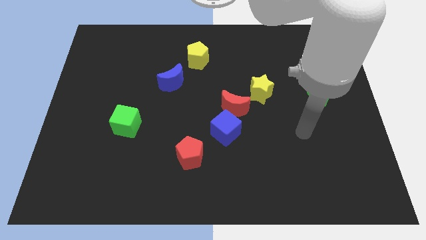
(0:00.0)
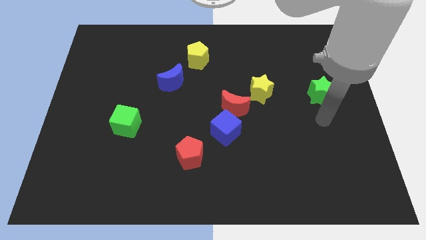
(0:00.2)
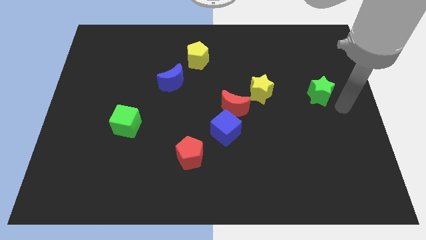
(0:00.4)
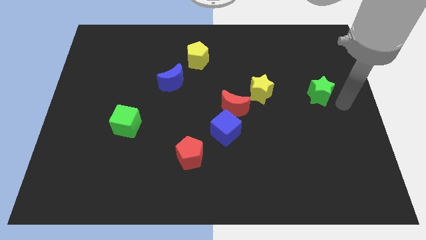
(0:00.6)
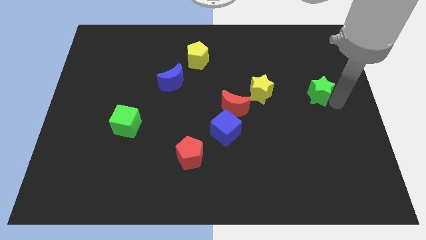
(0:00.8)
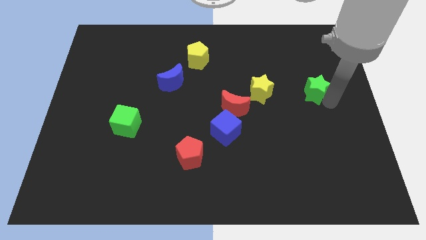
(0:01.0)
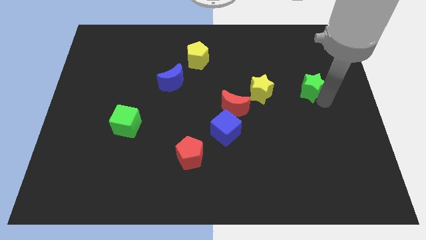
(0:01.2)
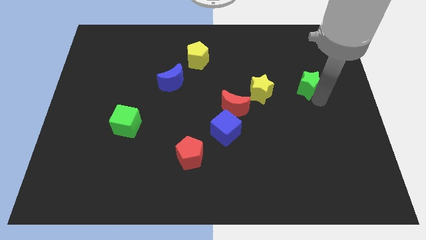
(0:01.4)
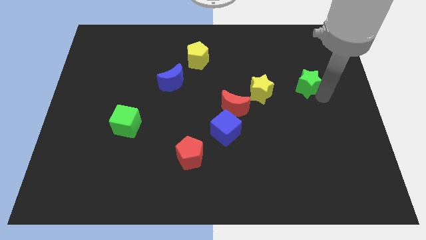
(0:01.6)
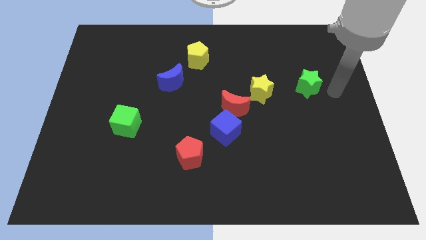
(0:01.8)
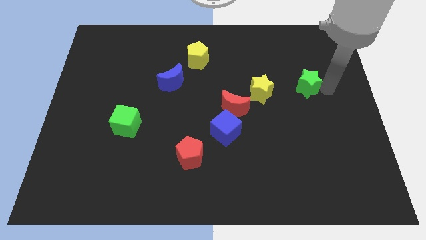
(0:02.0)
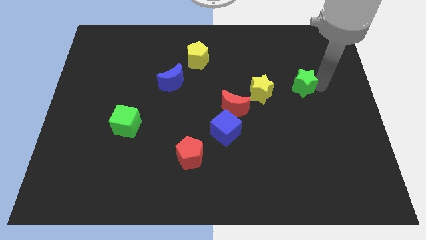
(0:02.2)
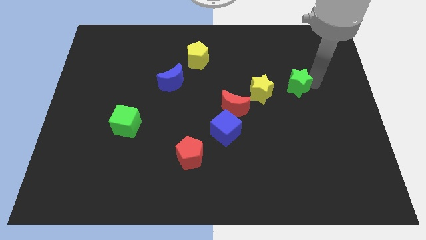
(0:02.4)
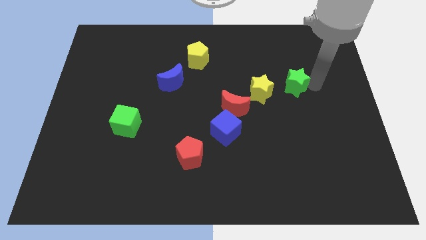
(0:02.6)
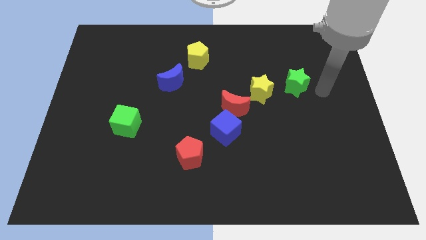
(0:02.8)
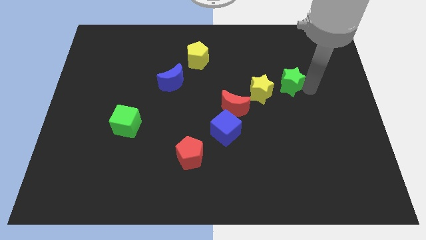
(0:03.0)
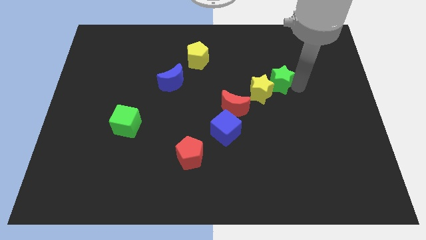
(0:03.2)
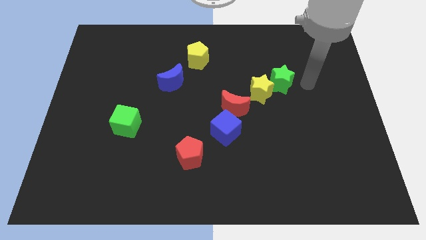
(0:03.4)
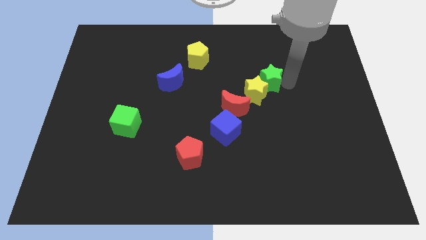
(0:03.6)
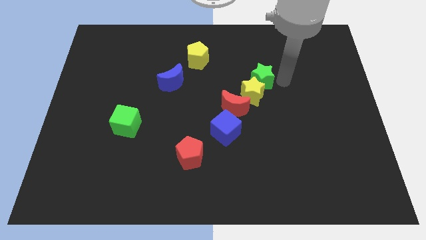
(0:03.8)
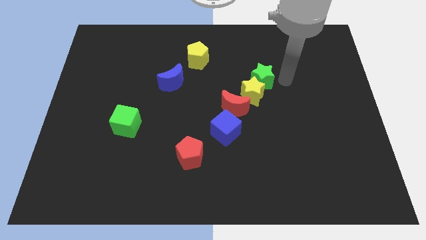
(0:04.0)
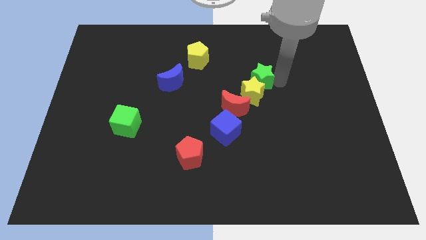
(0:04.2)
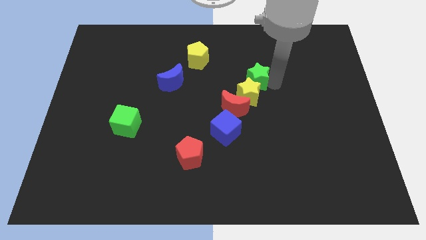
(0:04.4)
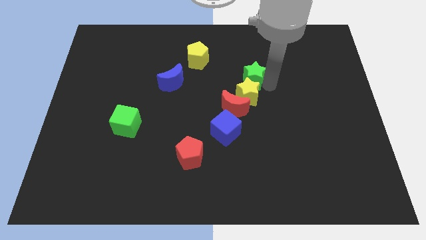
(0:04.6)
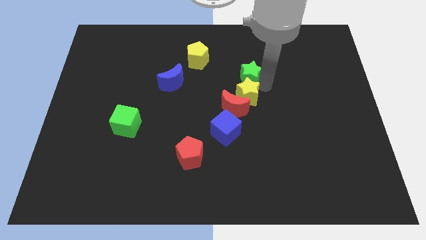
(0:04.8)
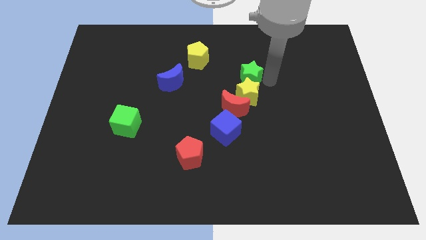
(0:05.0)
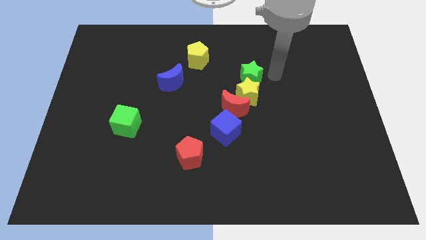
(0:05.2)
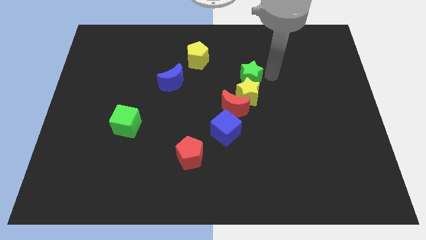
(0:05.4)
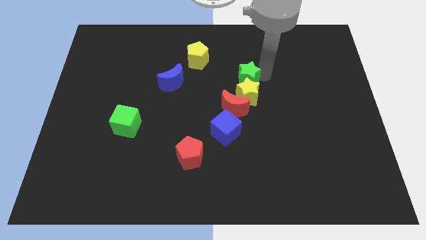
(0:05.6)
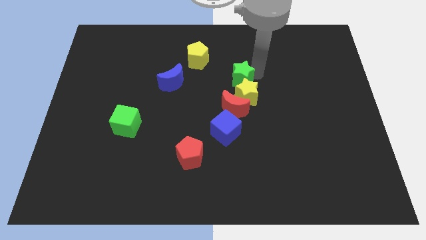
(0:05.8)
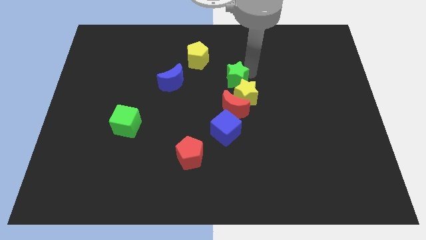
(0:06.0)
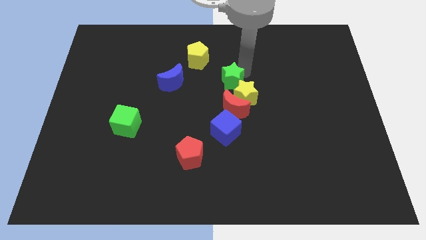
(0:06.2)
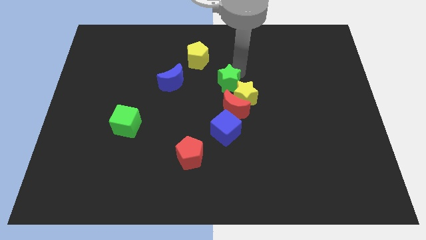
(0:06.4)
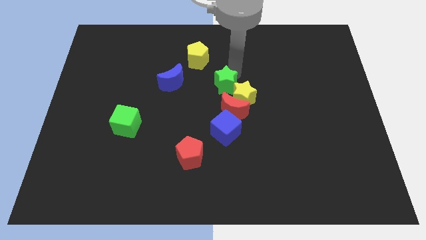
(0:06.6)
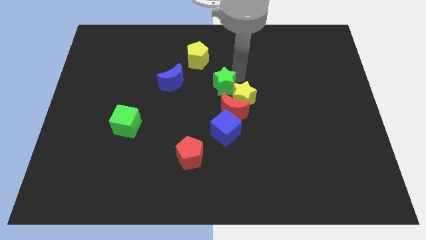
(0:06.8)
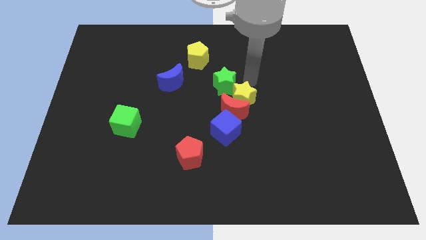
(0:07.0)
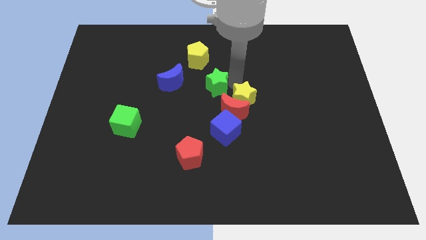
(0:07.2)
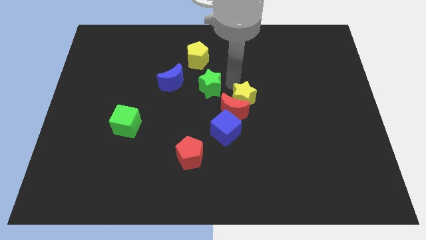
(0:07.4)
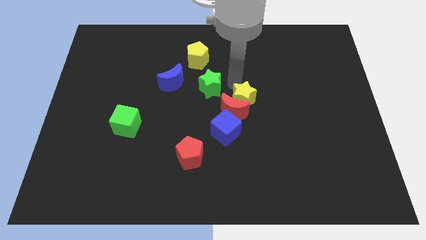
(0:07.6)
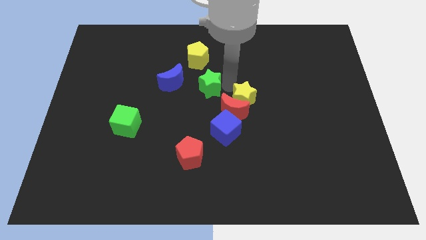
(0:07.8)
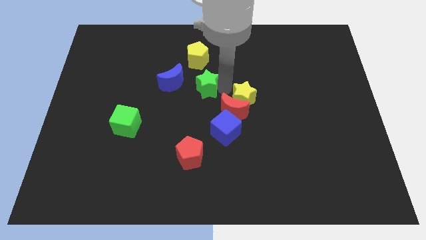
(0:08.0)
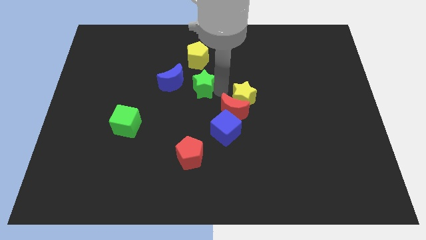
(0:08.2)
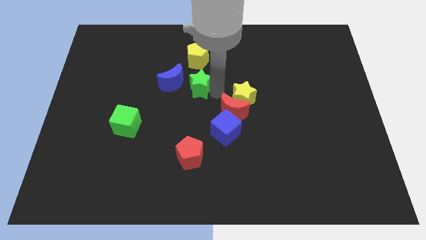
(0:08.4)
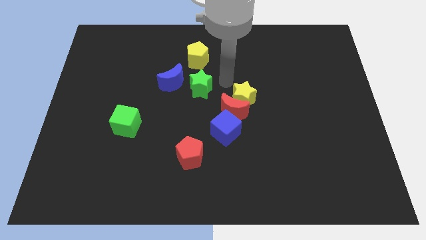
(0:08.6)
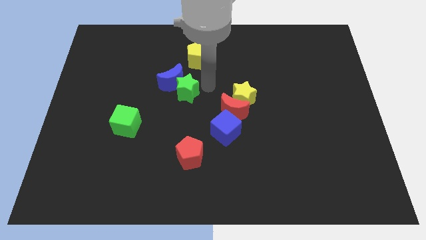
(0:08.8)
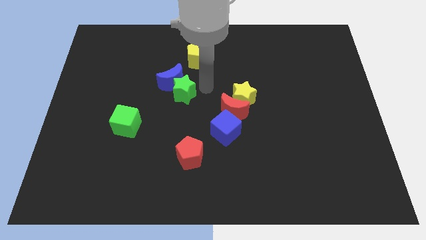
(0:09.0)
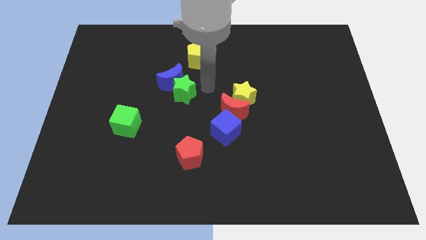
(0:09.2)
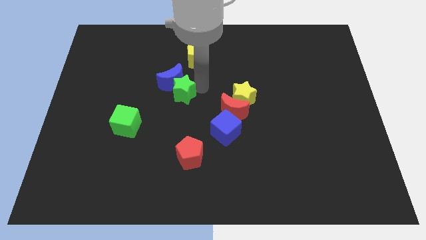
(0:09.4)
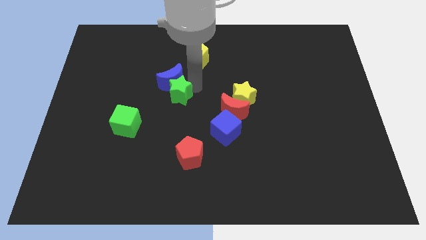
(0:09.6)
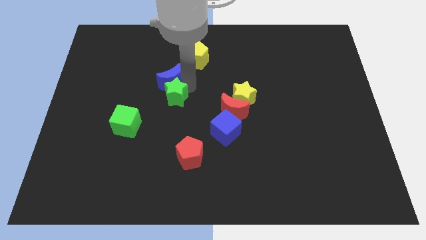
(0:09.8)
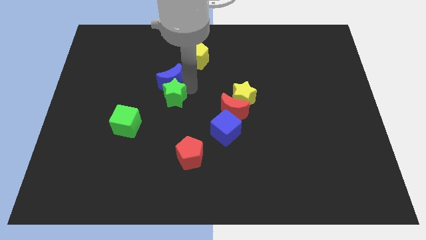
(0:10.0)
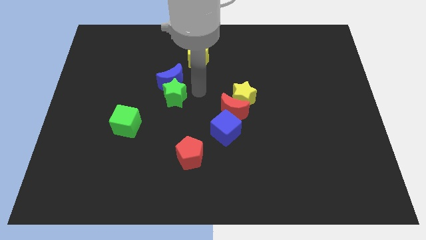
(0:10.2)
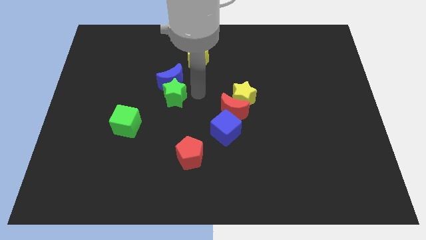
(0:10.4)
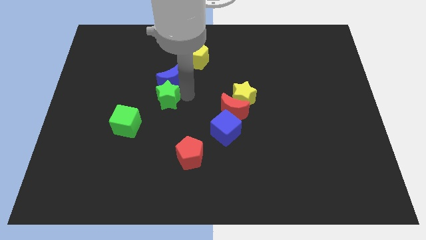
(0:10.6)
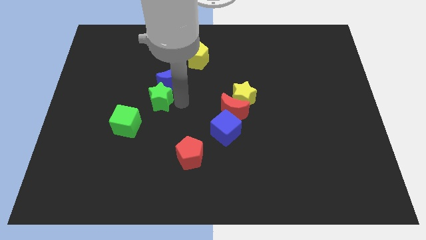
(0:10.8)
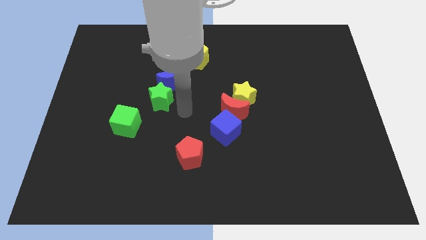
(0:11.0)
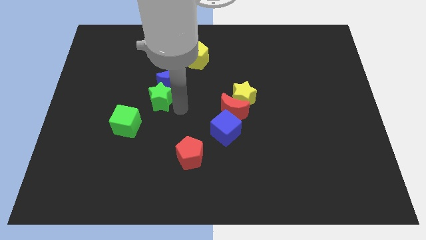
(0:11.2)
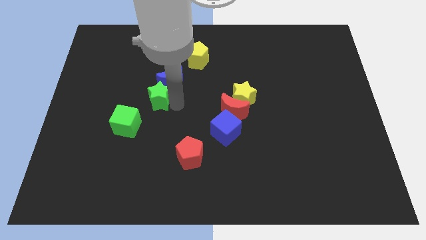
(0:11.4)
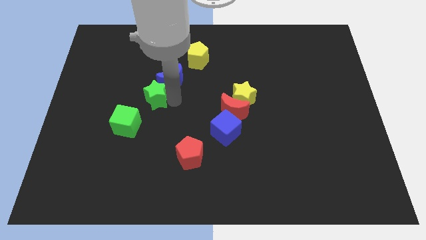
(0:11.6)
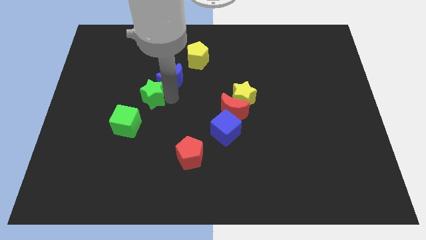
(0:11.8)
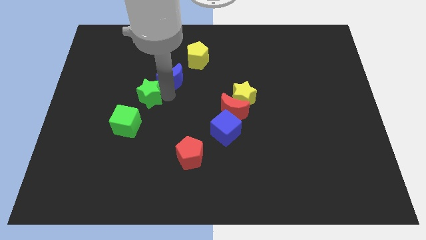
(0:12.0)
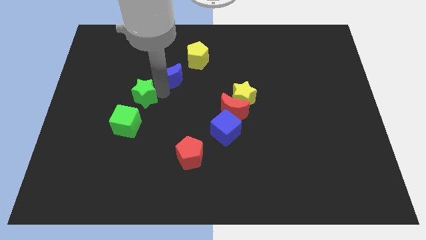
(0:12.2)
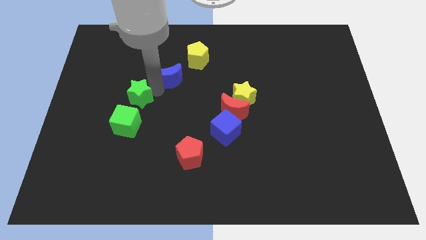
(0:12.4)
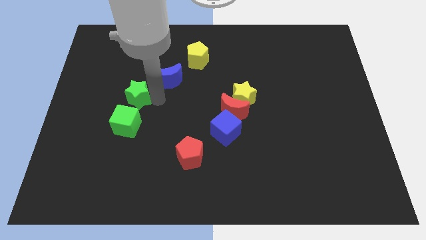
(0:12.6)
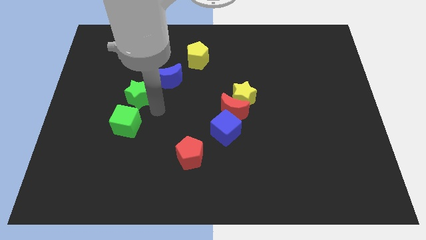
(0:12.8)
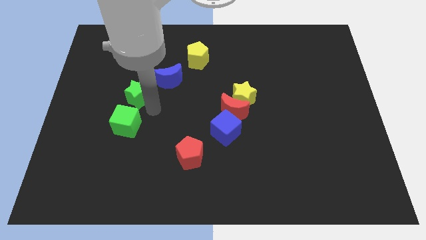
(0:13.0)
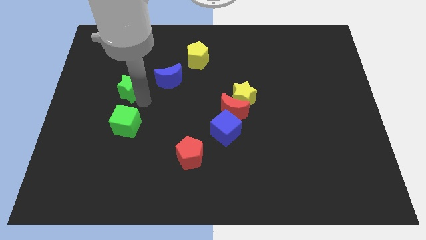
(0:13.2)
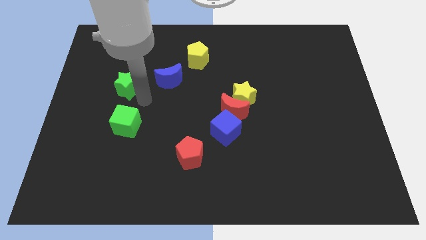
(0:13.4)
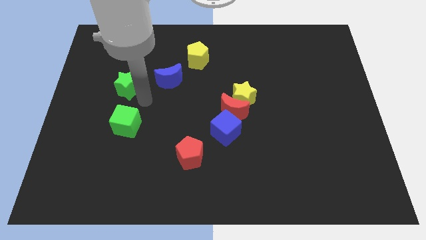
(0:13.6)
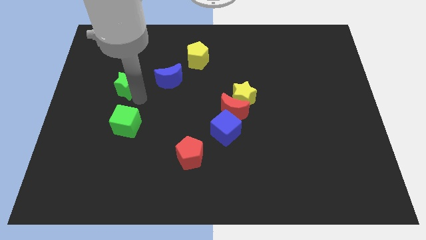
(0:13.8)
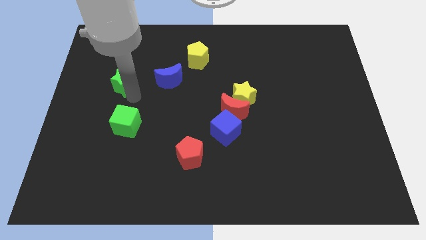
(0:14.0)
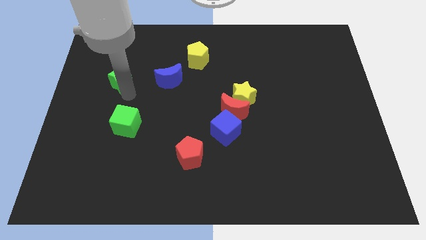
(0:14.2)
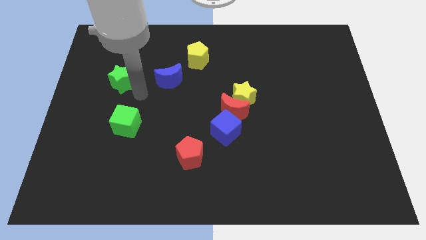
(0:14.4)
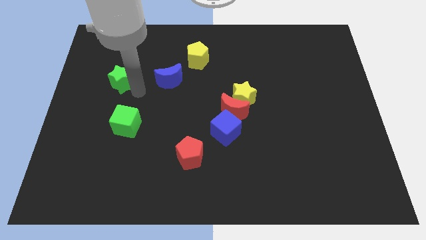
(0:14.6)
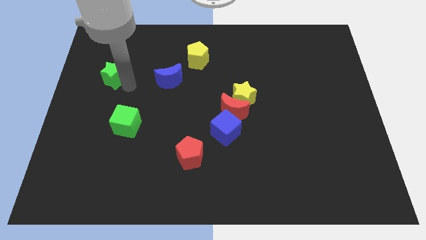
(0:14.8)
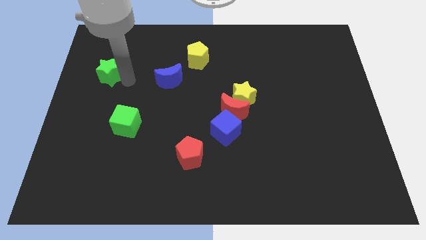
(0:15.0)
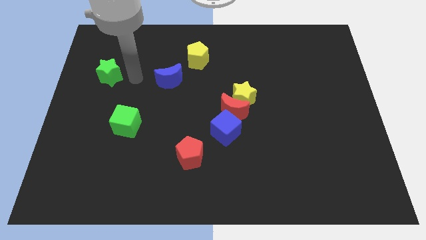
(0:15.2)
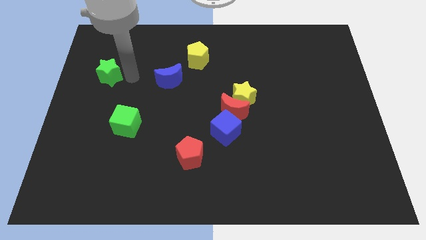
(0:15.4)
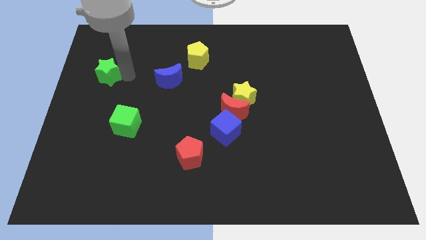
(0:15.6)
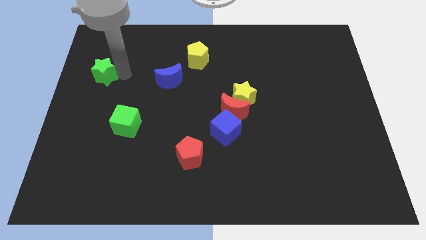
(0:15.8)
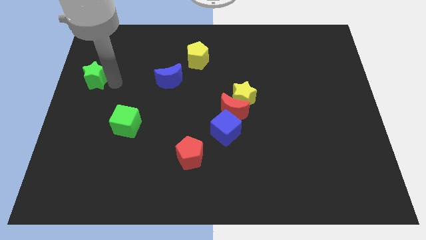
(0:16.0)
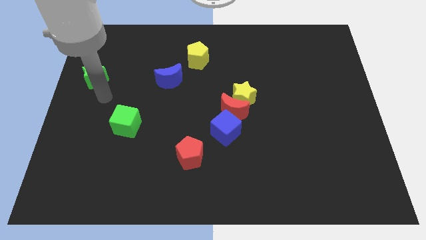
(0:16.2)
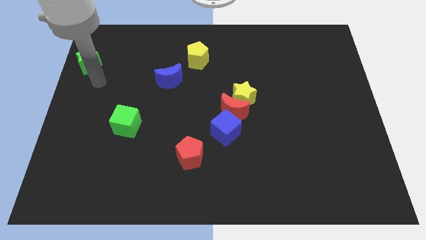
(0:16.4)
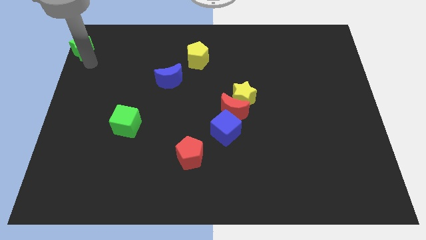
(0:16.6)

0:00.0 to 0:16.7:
slide the green star to the top left of the board
